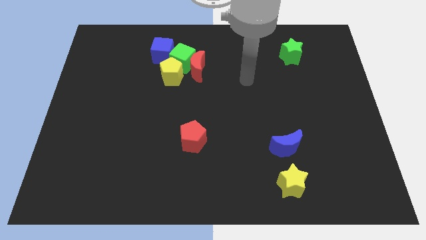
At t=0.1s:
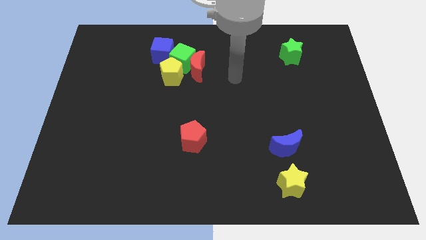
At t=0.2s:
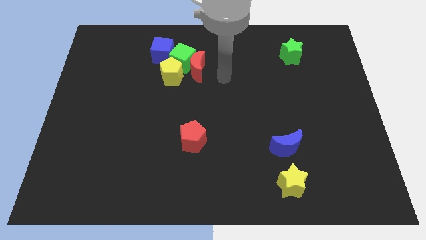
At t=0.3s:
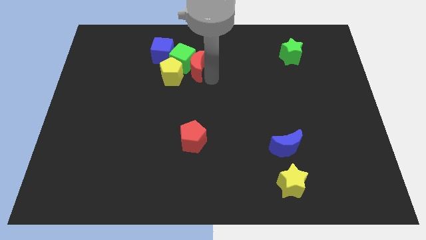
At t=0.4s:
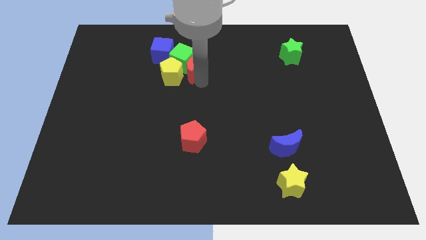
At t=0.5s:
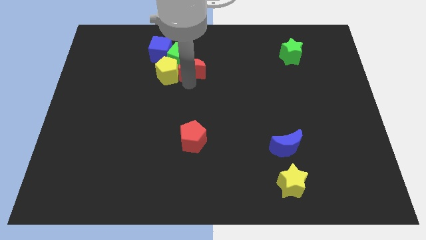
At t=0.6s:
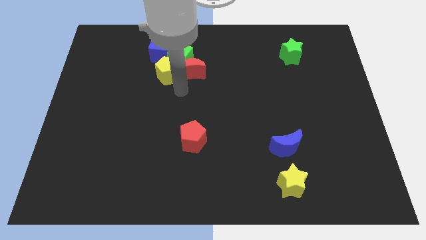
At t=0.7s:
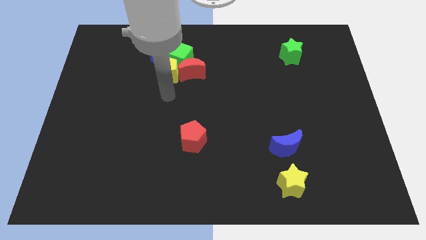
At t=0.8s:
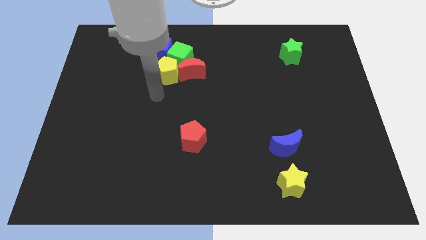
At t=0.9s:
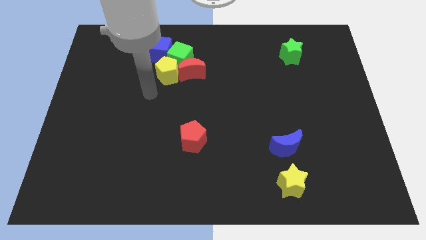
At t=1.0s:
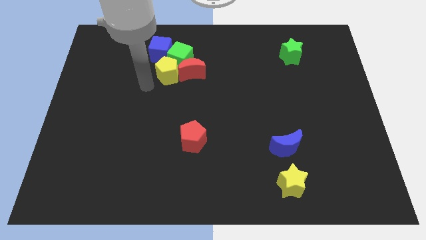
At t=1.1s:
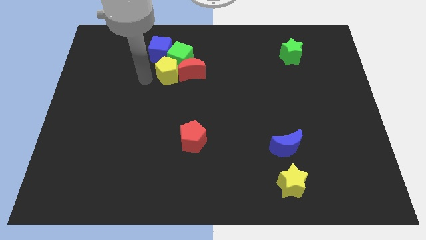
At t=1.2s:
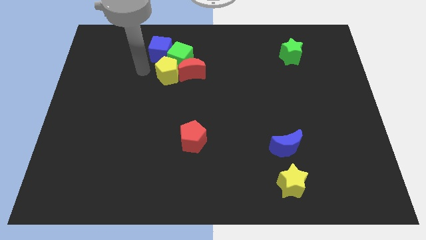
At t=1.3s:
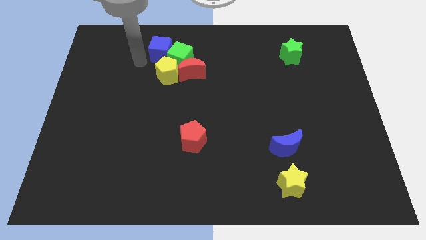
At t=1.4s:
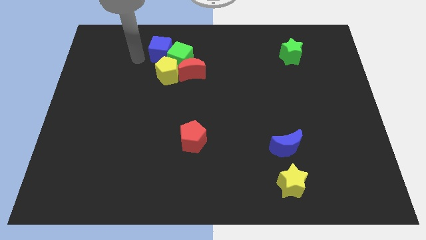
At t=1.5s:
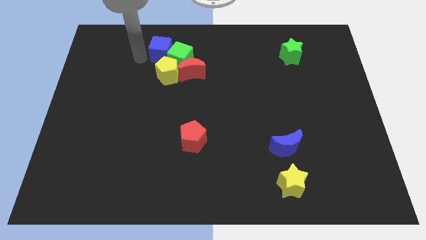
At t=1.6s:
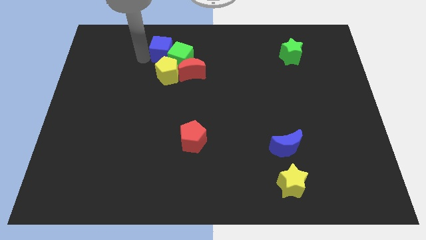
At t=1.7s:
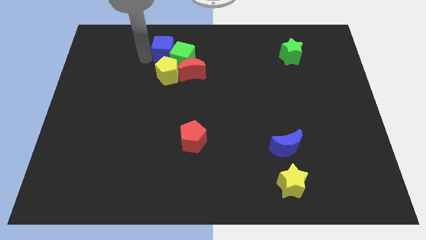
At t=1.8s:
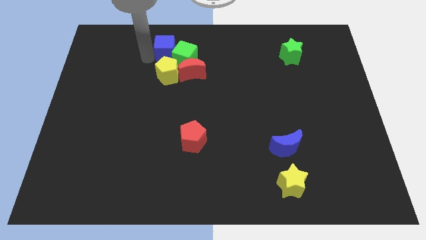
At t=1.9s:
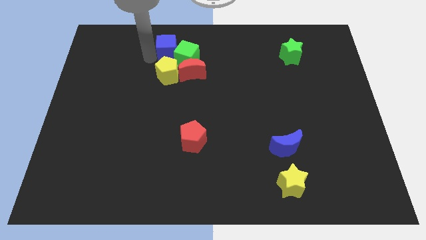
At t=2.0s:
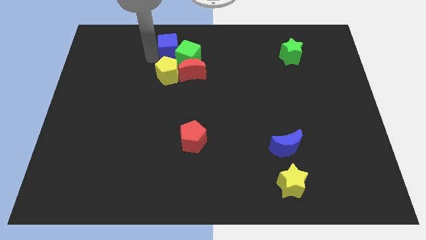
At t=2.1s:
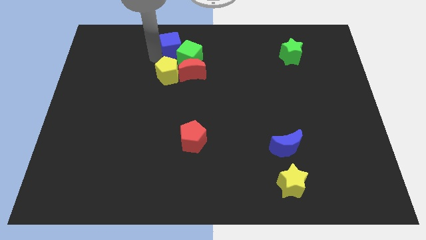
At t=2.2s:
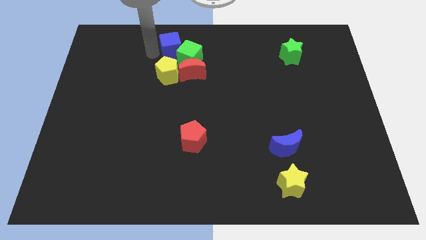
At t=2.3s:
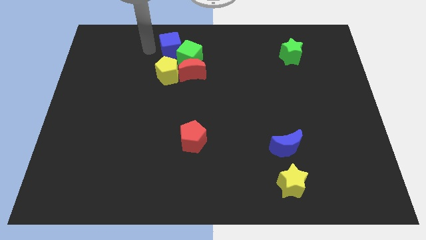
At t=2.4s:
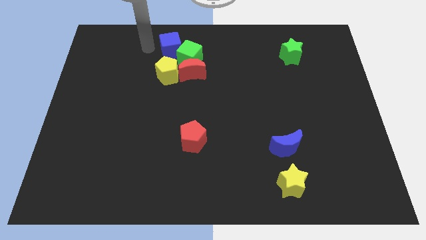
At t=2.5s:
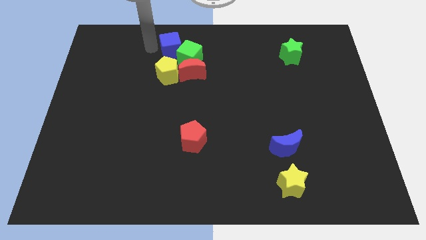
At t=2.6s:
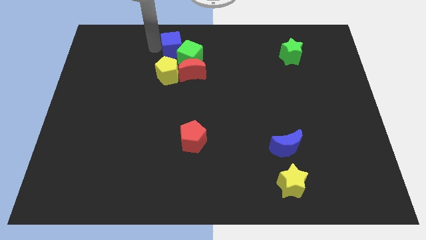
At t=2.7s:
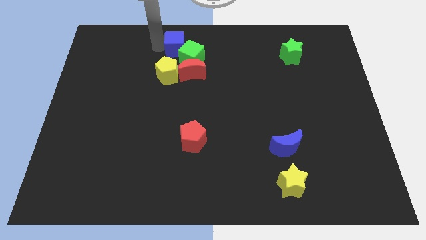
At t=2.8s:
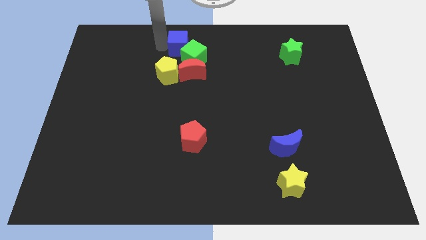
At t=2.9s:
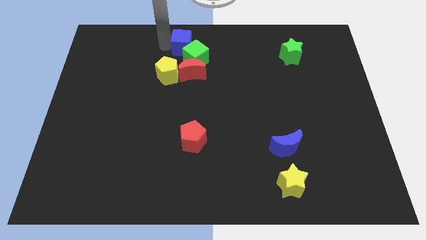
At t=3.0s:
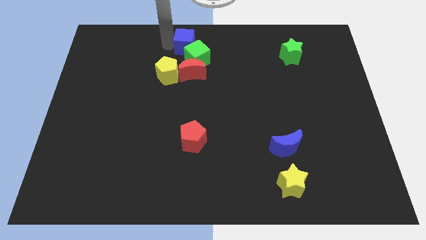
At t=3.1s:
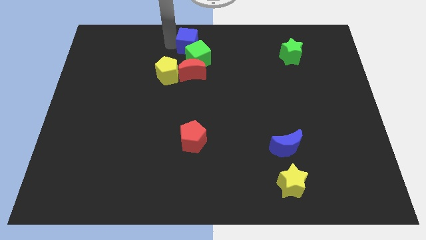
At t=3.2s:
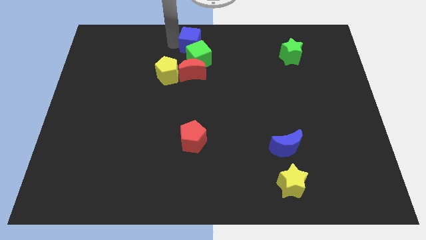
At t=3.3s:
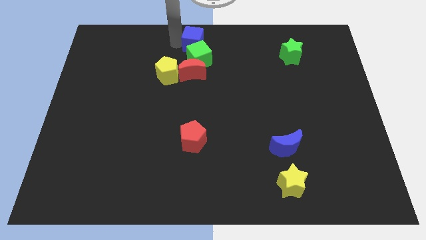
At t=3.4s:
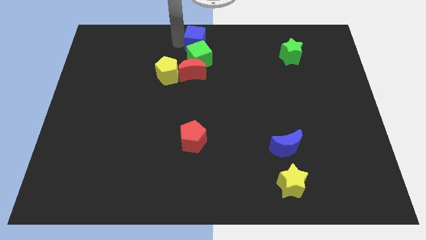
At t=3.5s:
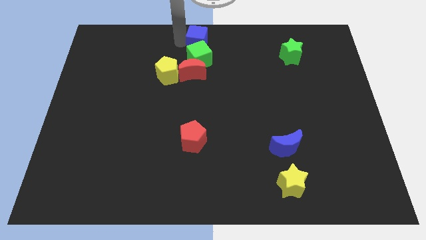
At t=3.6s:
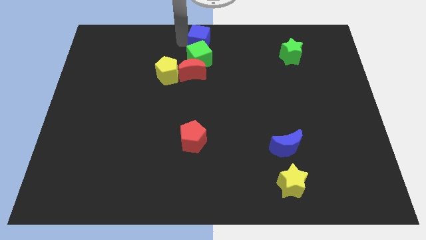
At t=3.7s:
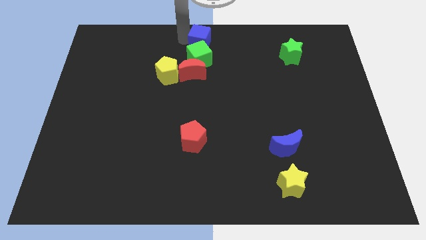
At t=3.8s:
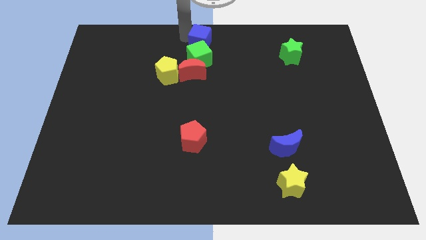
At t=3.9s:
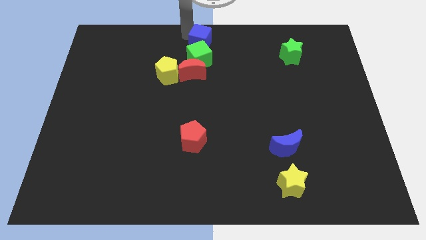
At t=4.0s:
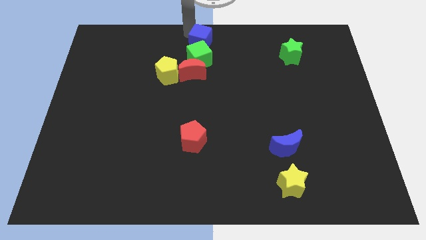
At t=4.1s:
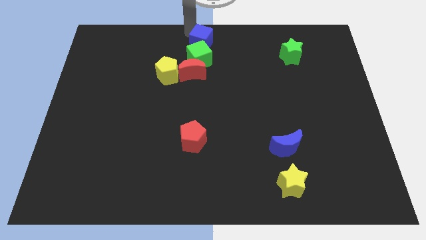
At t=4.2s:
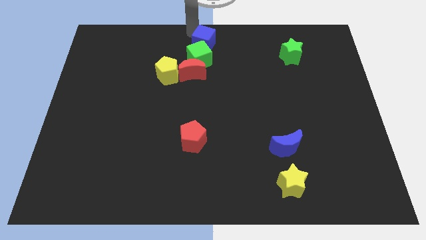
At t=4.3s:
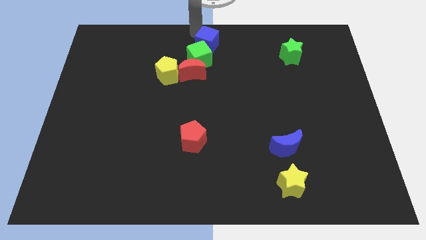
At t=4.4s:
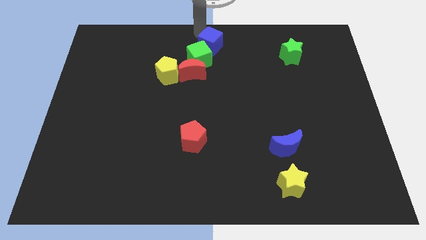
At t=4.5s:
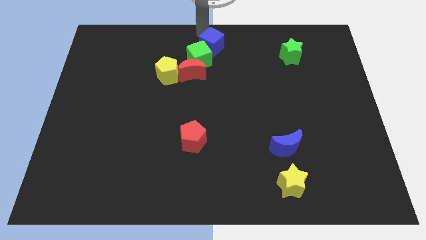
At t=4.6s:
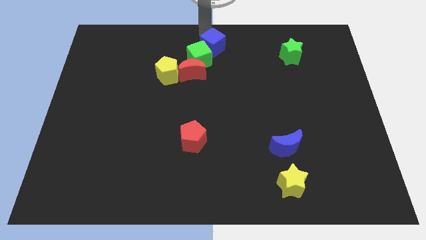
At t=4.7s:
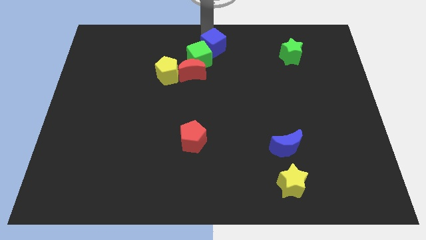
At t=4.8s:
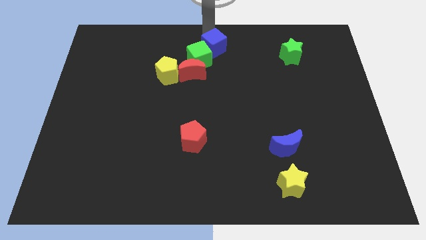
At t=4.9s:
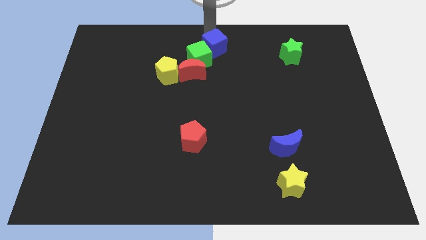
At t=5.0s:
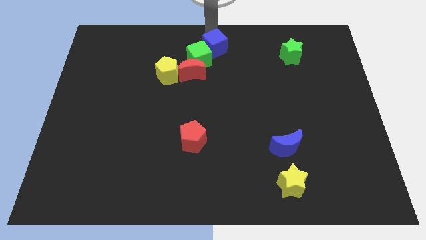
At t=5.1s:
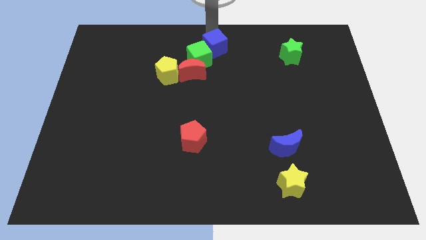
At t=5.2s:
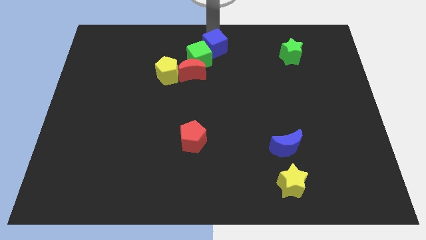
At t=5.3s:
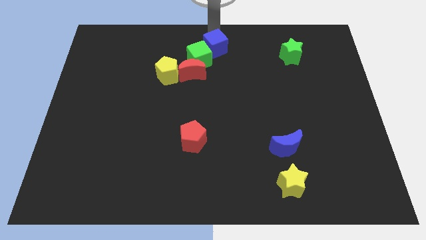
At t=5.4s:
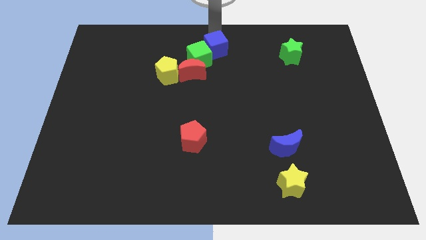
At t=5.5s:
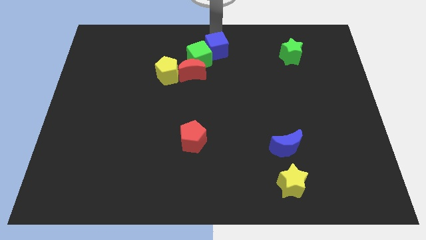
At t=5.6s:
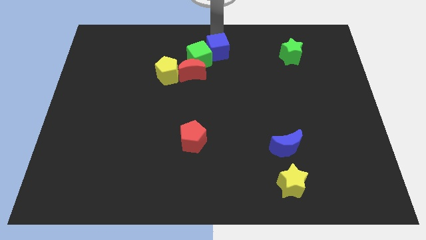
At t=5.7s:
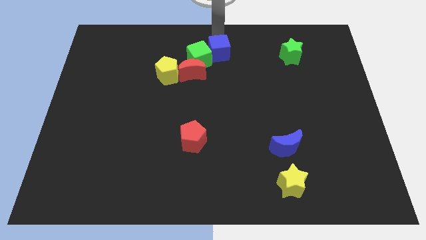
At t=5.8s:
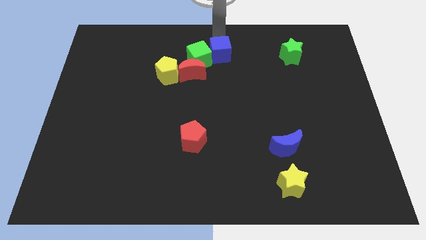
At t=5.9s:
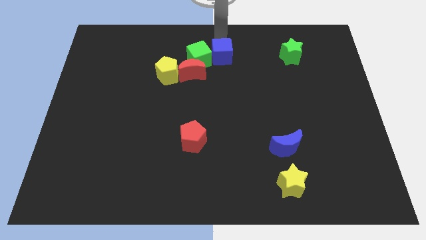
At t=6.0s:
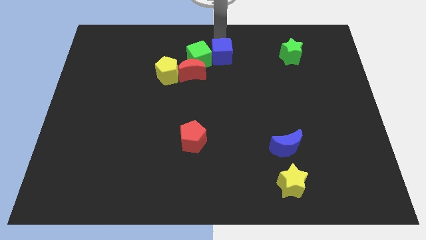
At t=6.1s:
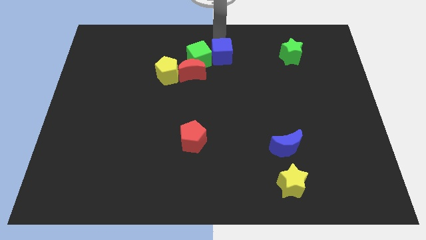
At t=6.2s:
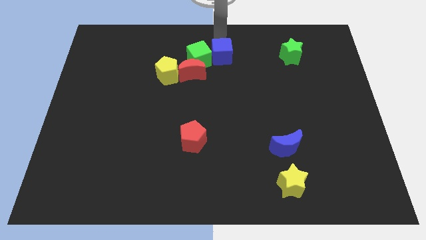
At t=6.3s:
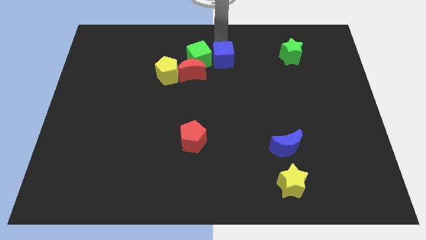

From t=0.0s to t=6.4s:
push the blue cube slightly downwards and right diagonally

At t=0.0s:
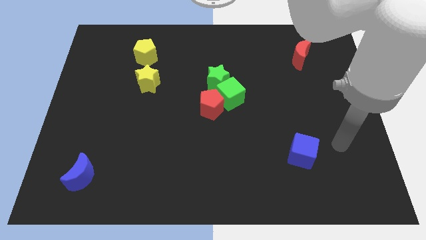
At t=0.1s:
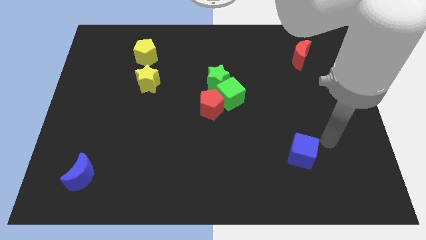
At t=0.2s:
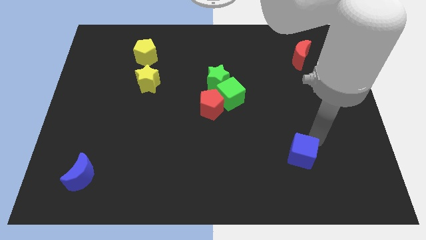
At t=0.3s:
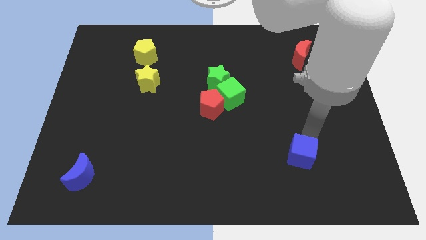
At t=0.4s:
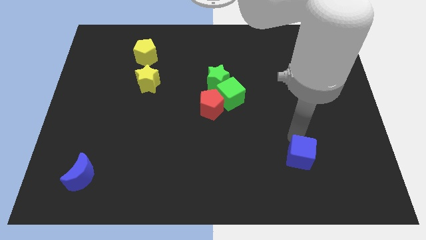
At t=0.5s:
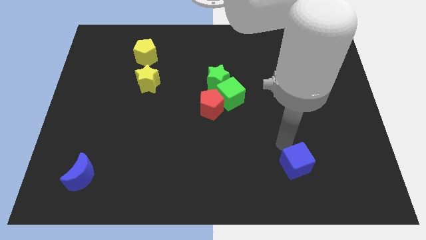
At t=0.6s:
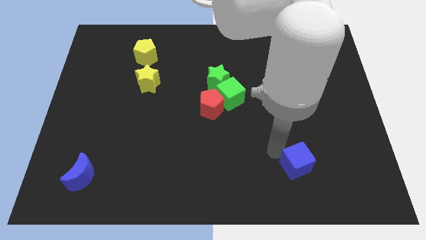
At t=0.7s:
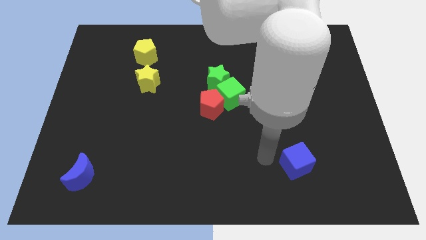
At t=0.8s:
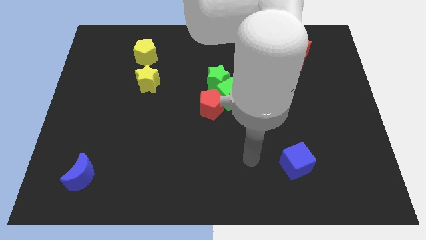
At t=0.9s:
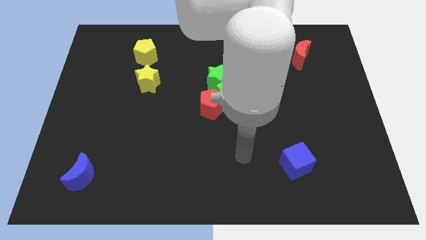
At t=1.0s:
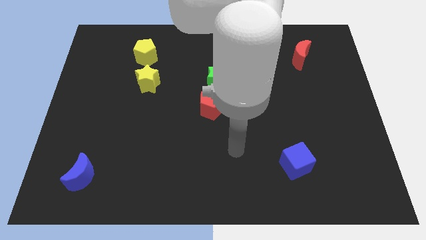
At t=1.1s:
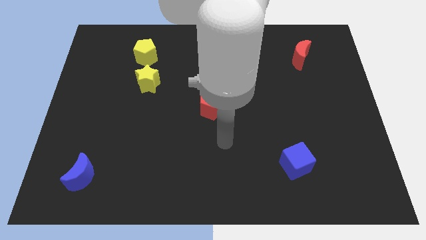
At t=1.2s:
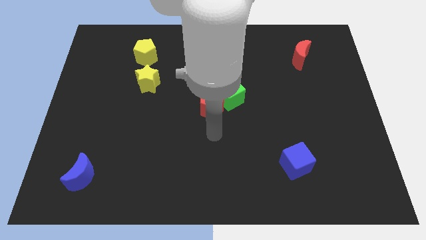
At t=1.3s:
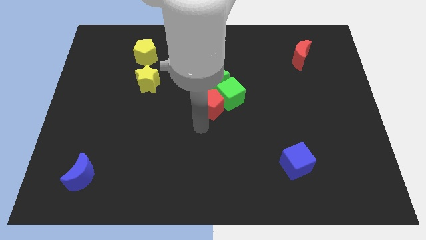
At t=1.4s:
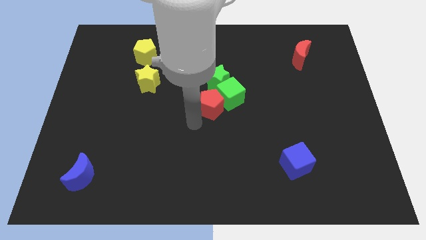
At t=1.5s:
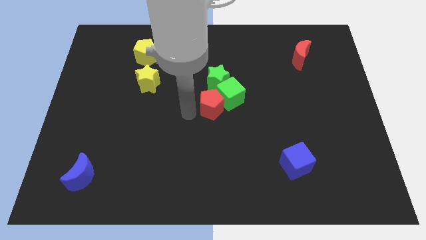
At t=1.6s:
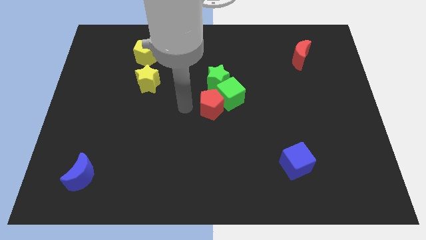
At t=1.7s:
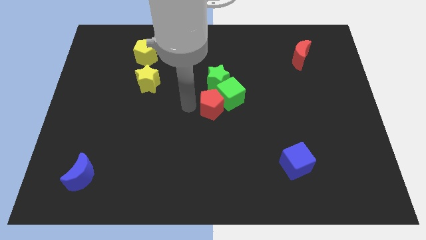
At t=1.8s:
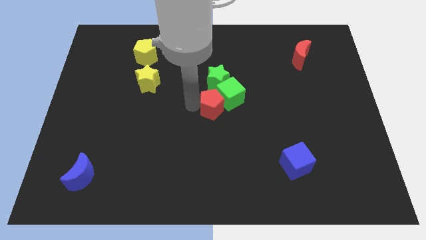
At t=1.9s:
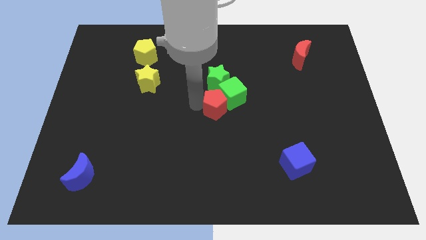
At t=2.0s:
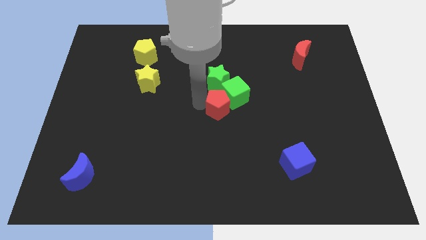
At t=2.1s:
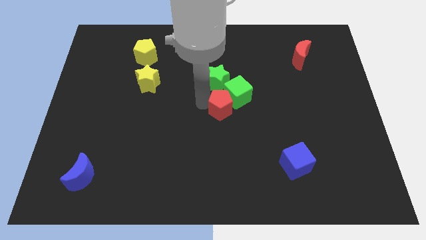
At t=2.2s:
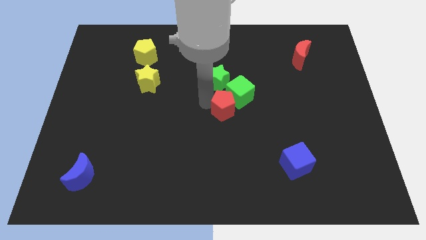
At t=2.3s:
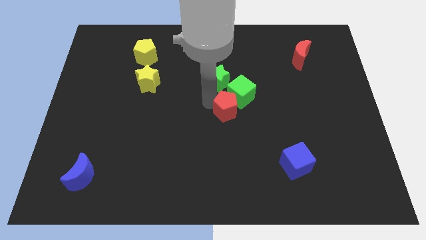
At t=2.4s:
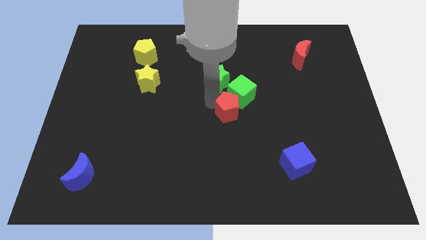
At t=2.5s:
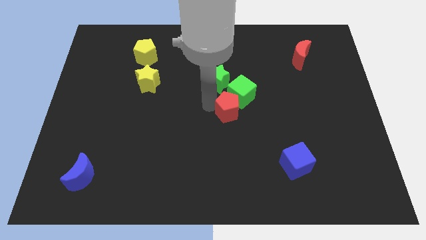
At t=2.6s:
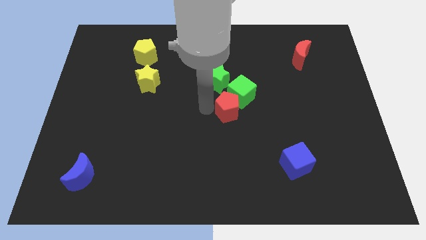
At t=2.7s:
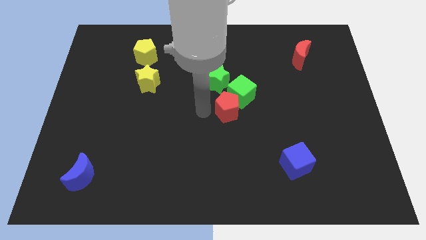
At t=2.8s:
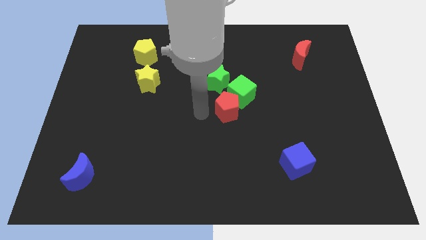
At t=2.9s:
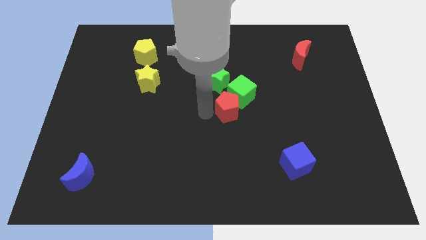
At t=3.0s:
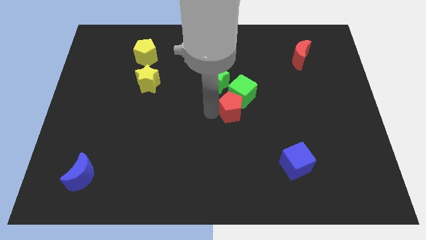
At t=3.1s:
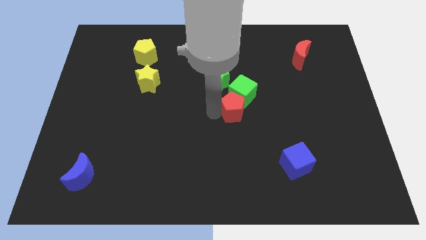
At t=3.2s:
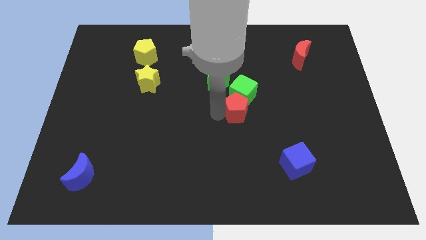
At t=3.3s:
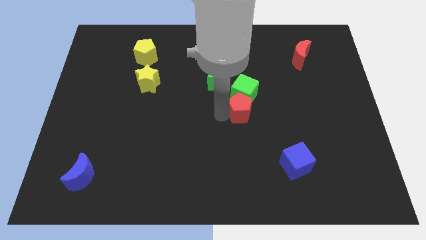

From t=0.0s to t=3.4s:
move the red pentagon right a bit
